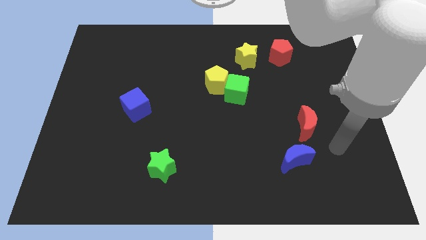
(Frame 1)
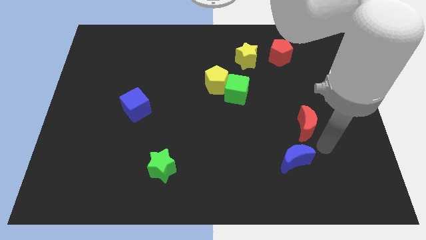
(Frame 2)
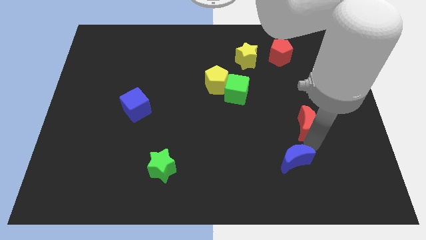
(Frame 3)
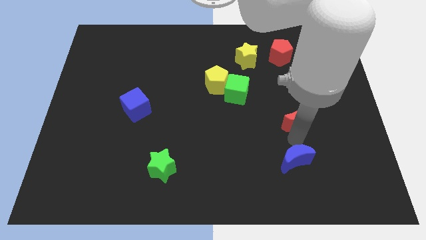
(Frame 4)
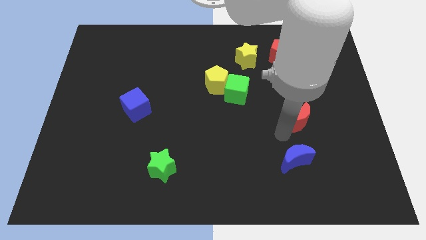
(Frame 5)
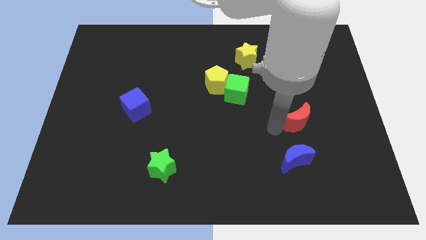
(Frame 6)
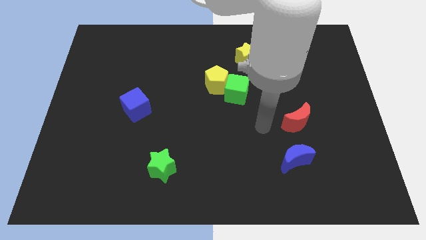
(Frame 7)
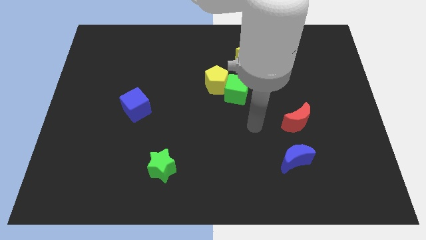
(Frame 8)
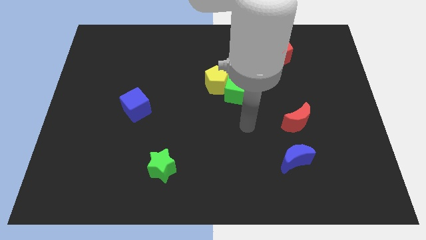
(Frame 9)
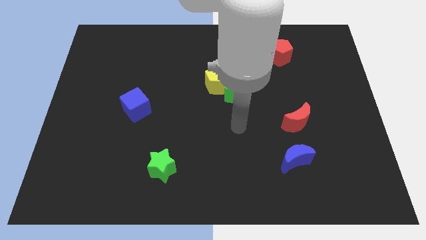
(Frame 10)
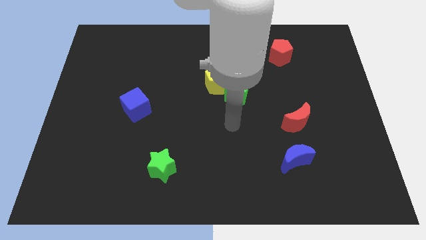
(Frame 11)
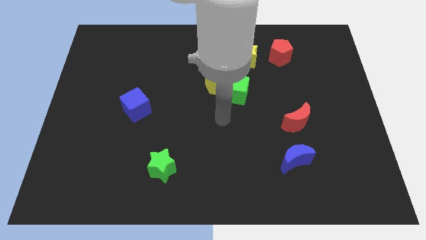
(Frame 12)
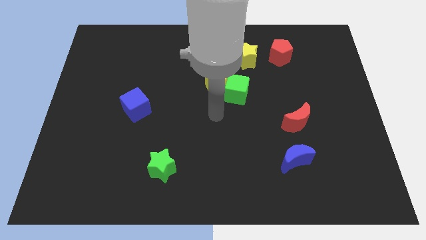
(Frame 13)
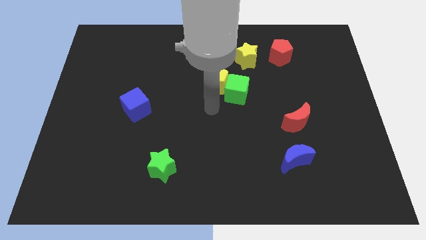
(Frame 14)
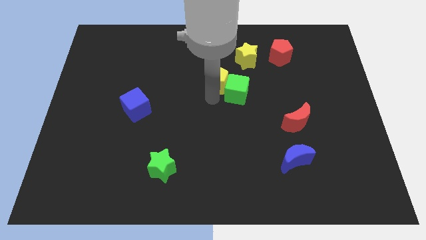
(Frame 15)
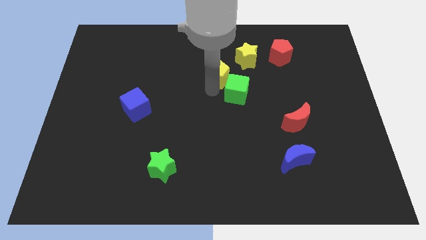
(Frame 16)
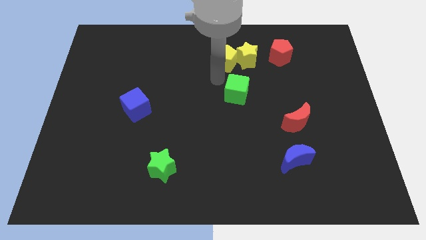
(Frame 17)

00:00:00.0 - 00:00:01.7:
separate the green cube from the yellow pentagon

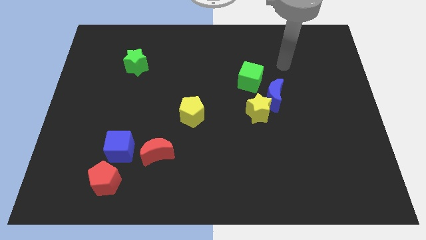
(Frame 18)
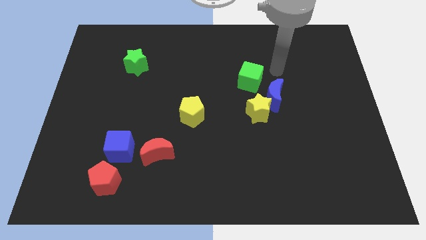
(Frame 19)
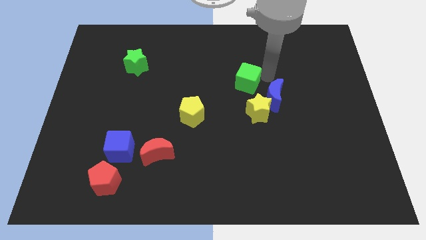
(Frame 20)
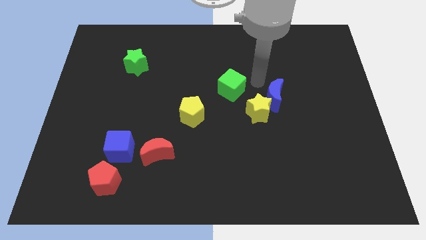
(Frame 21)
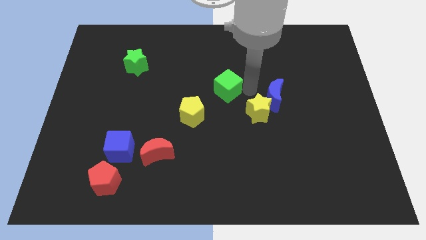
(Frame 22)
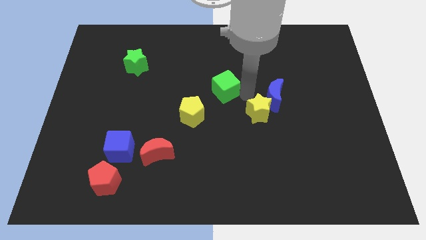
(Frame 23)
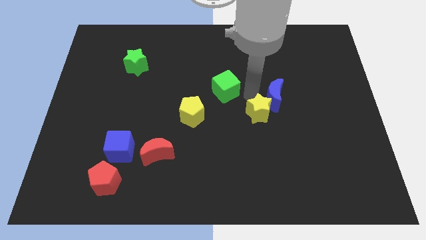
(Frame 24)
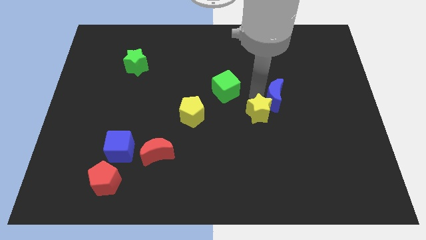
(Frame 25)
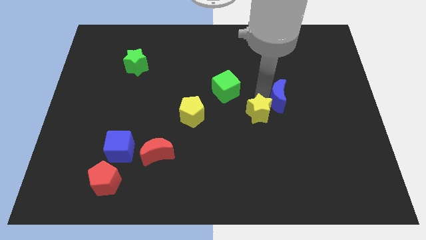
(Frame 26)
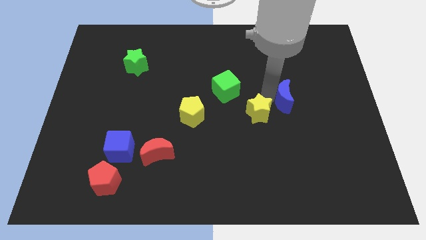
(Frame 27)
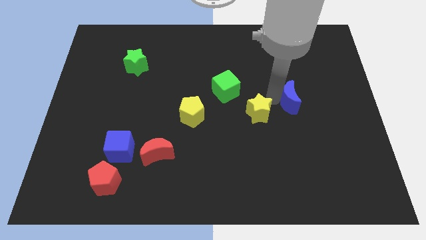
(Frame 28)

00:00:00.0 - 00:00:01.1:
pull the blue moon apart from the yellow star and green cube

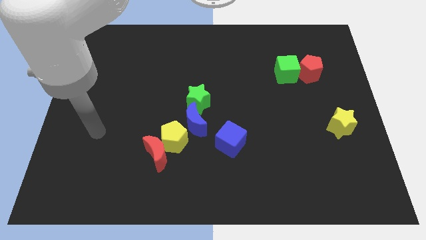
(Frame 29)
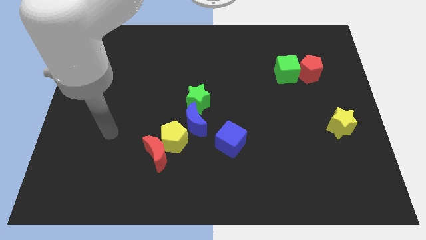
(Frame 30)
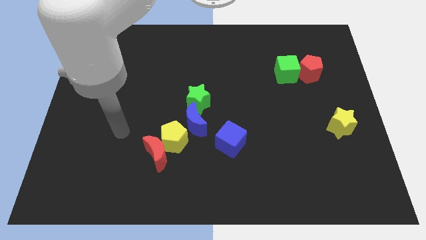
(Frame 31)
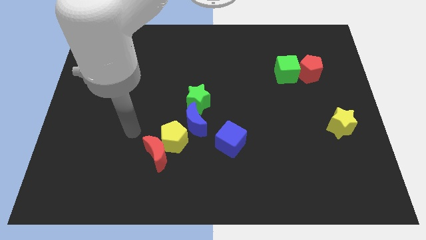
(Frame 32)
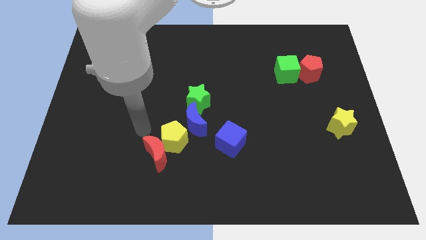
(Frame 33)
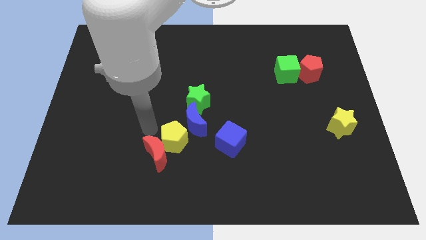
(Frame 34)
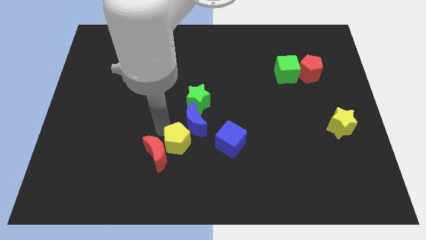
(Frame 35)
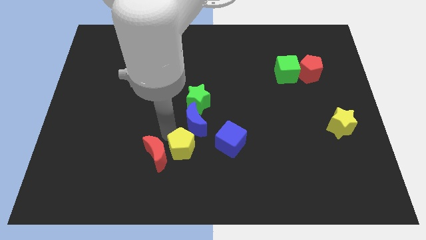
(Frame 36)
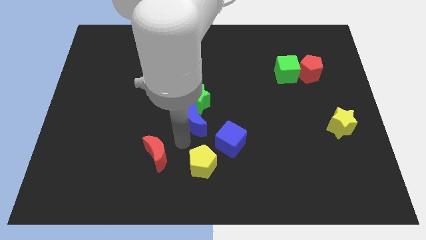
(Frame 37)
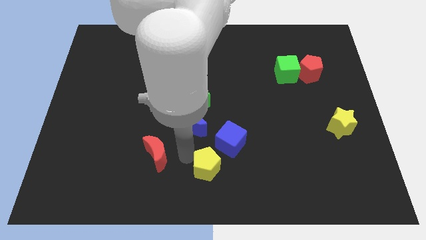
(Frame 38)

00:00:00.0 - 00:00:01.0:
pull the red moon apart from the yellow pentagon

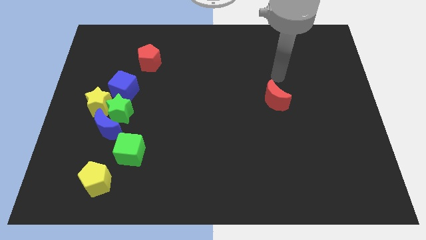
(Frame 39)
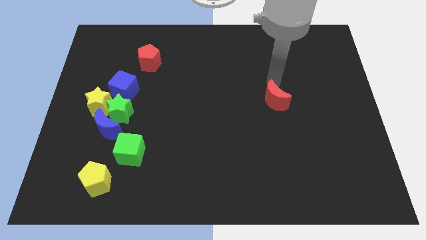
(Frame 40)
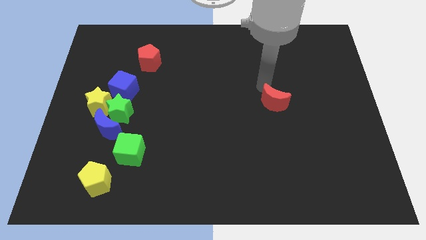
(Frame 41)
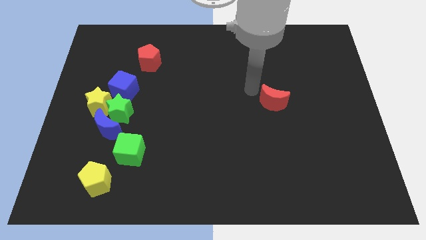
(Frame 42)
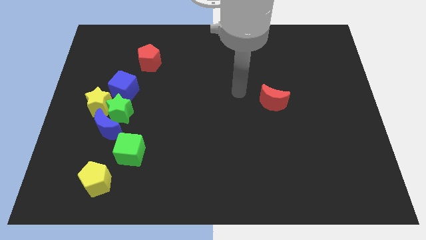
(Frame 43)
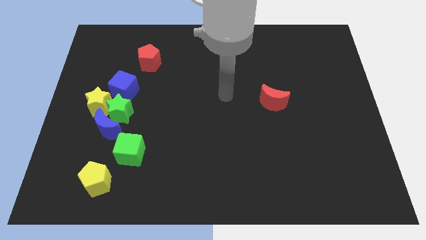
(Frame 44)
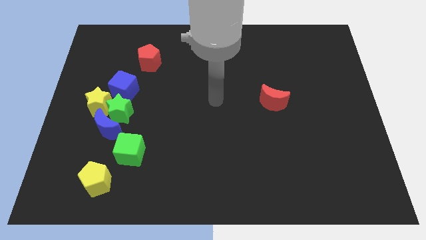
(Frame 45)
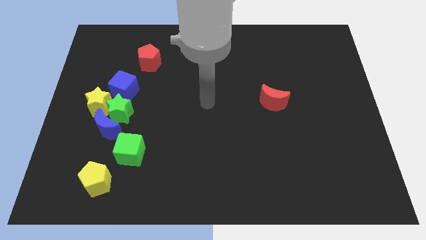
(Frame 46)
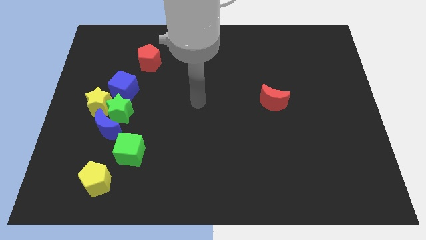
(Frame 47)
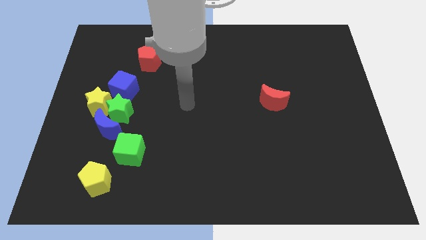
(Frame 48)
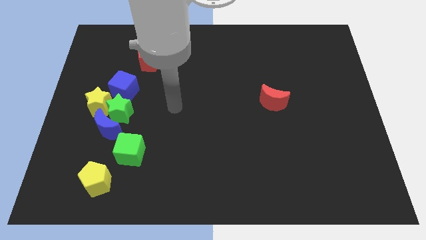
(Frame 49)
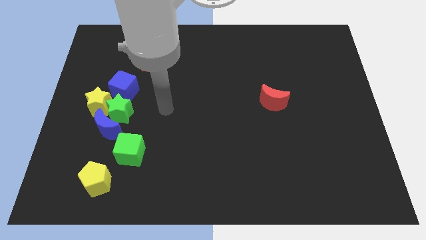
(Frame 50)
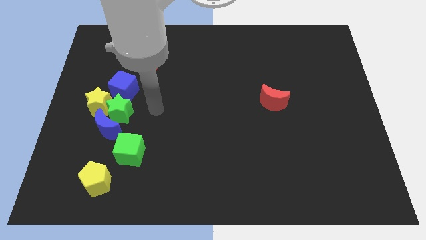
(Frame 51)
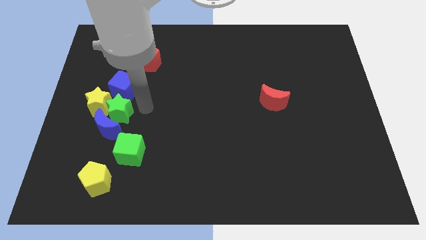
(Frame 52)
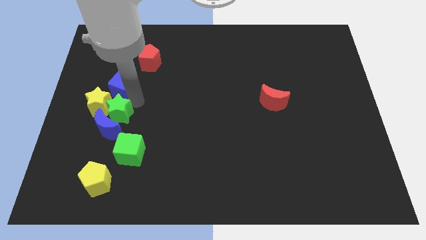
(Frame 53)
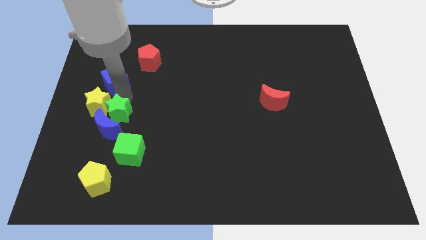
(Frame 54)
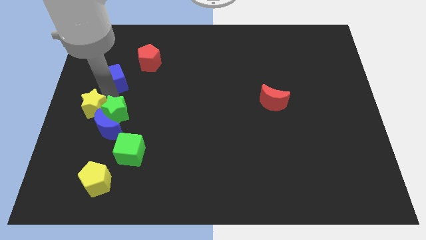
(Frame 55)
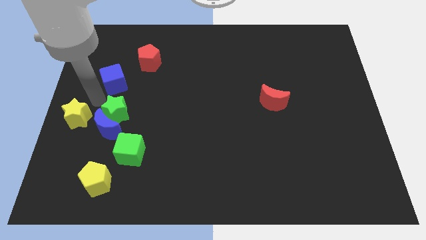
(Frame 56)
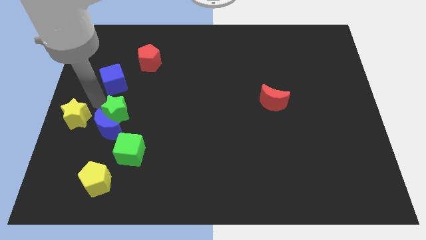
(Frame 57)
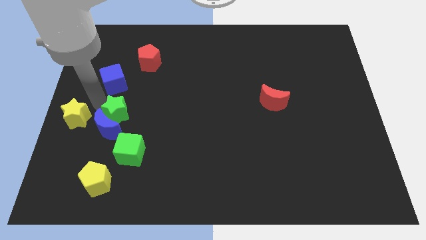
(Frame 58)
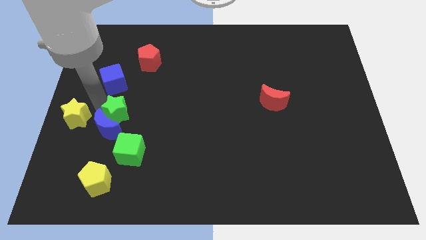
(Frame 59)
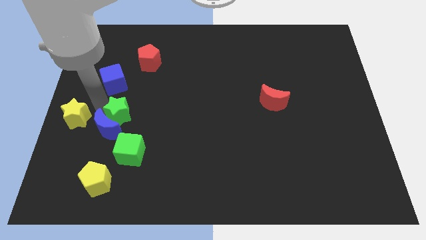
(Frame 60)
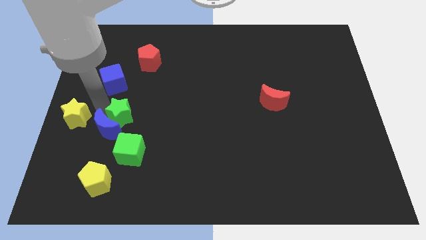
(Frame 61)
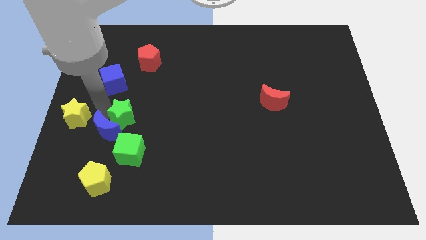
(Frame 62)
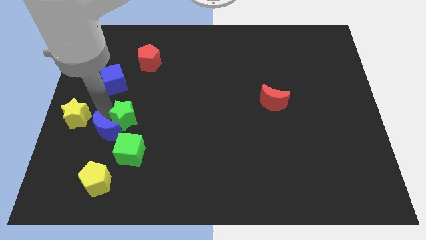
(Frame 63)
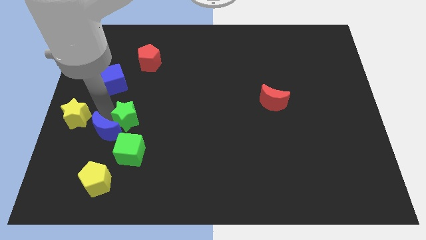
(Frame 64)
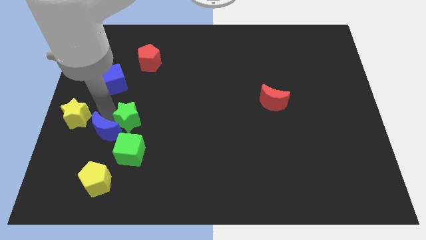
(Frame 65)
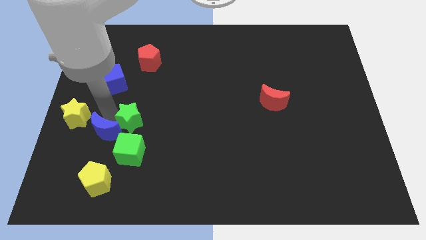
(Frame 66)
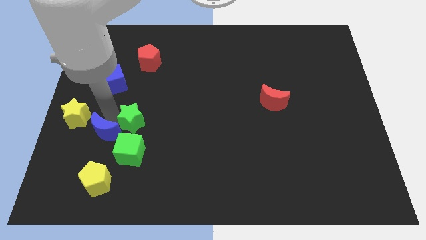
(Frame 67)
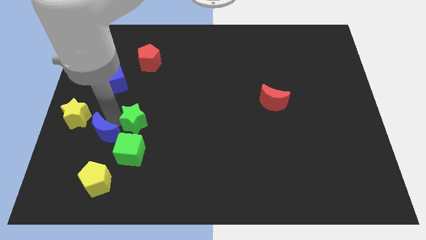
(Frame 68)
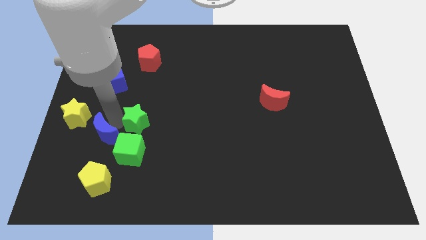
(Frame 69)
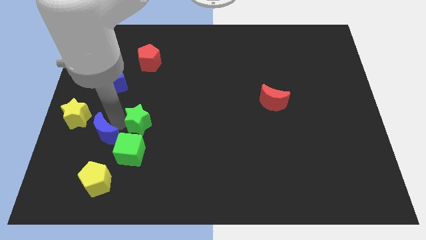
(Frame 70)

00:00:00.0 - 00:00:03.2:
move the green star away from the group of blocks

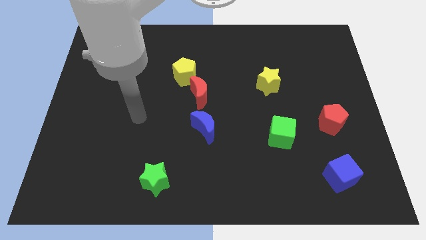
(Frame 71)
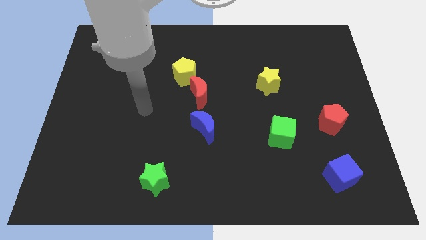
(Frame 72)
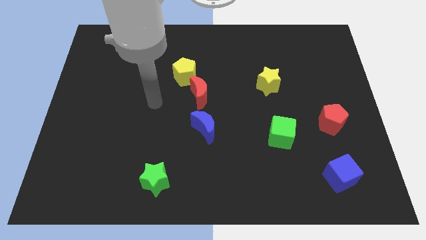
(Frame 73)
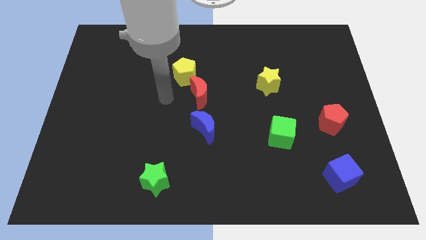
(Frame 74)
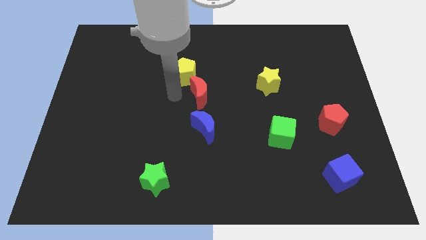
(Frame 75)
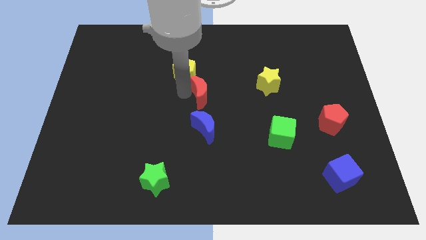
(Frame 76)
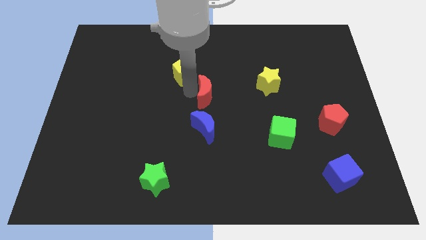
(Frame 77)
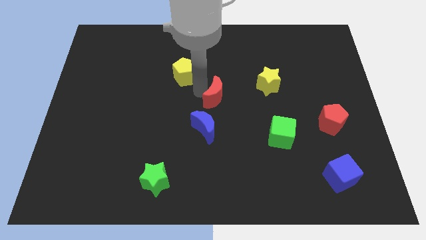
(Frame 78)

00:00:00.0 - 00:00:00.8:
separate the yellow pentagon from the red moon

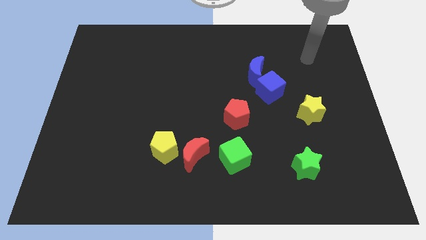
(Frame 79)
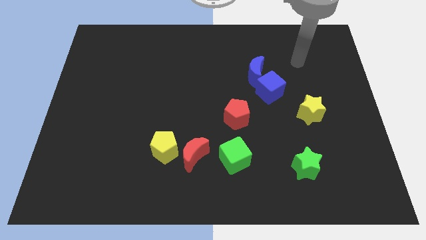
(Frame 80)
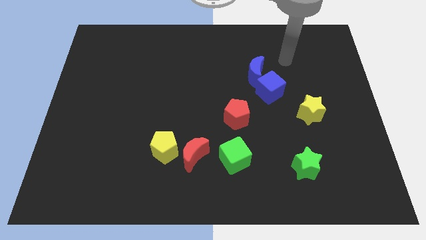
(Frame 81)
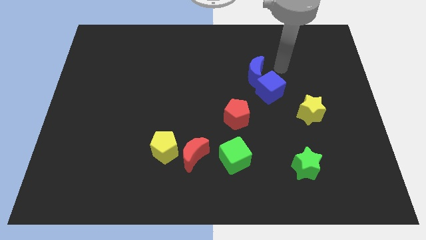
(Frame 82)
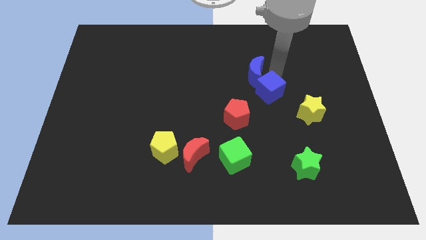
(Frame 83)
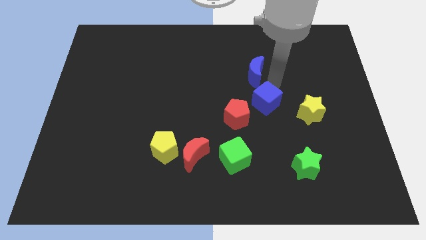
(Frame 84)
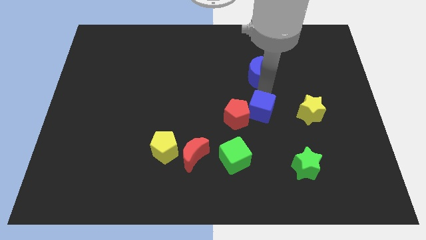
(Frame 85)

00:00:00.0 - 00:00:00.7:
move the blue moon away from the blue cube

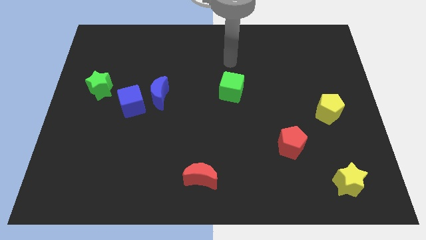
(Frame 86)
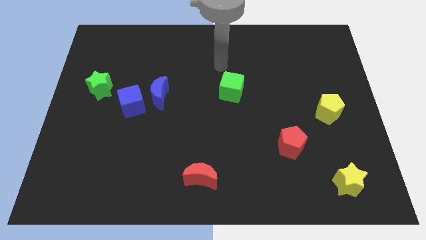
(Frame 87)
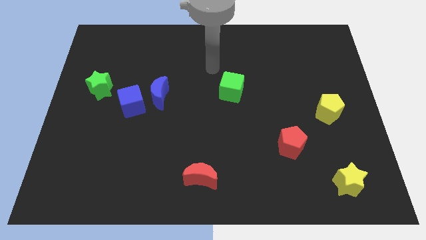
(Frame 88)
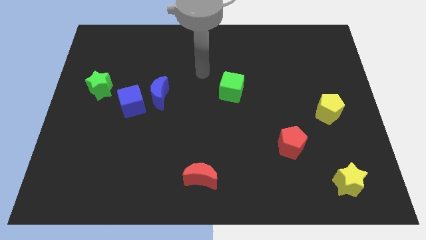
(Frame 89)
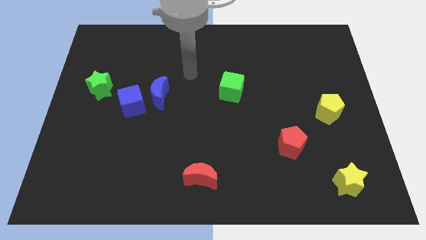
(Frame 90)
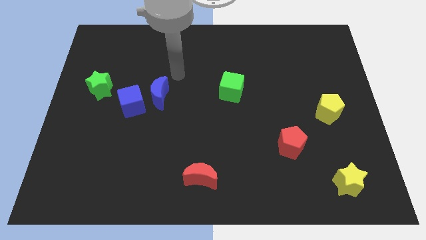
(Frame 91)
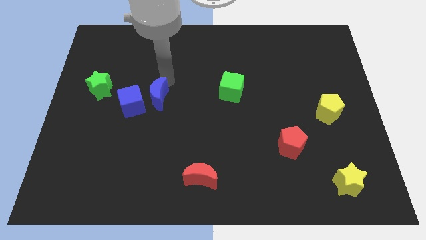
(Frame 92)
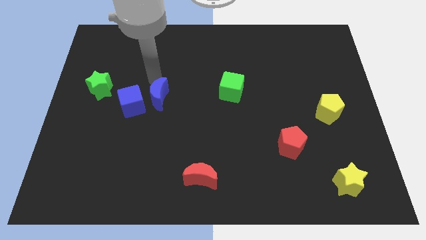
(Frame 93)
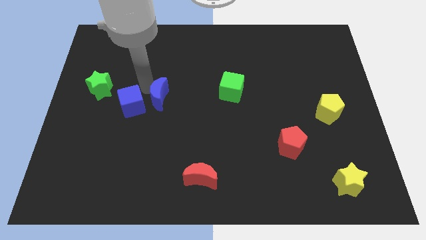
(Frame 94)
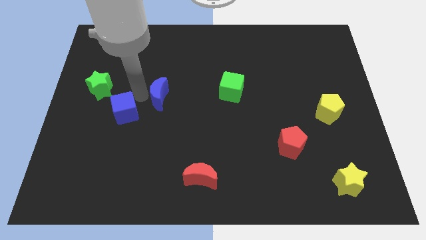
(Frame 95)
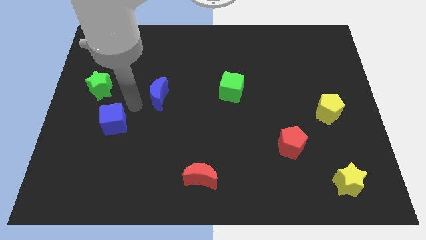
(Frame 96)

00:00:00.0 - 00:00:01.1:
pull the blue moon apart from the blue cube
